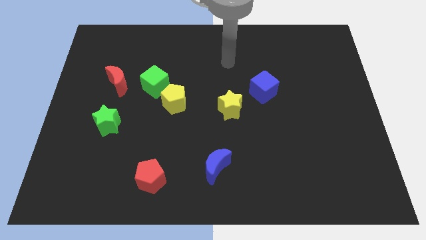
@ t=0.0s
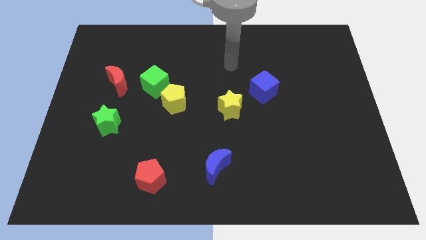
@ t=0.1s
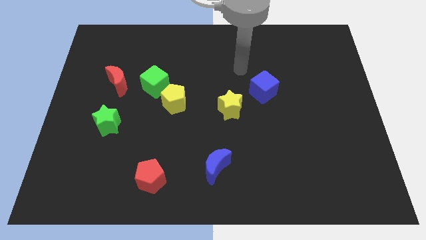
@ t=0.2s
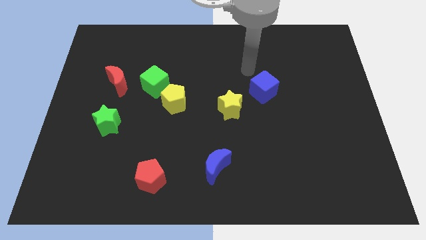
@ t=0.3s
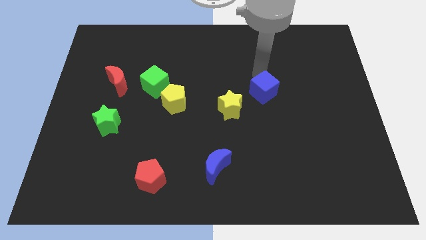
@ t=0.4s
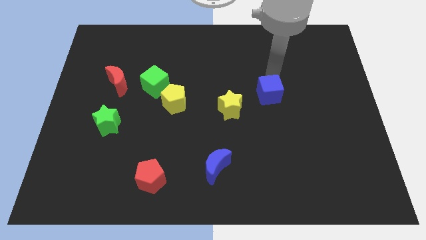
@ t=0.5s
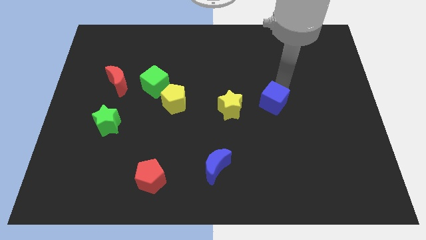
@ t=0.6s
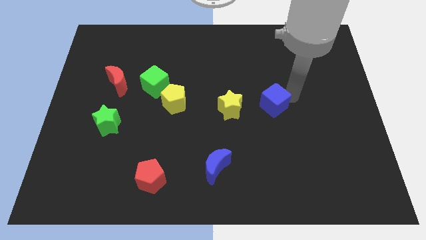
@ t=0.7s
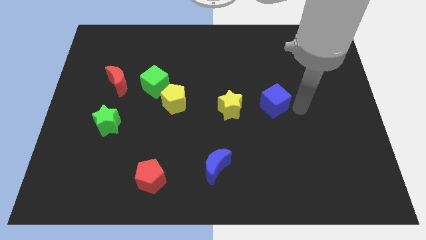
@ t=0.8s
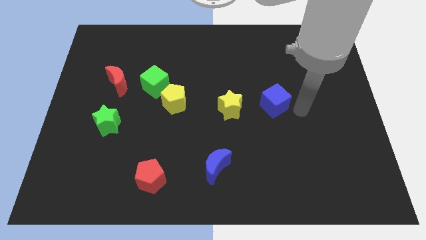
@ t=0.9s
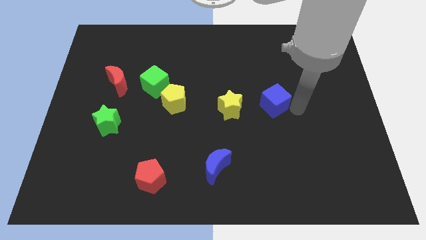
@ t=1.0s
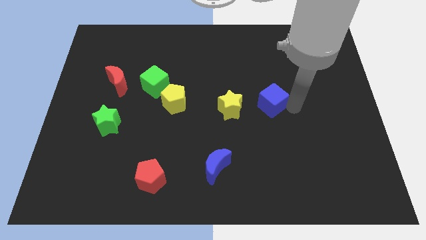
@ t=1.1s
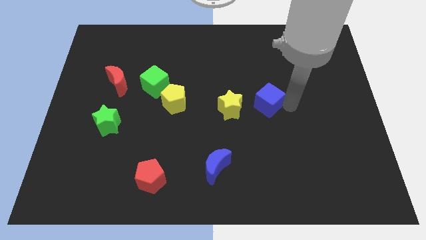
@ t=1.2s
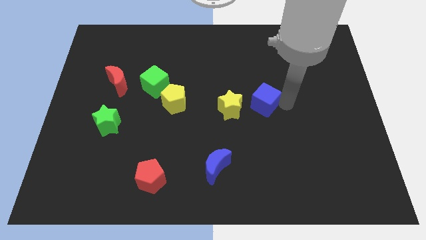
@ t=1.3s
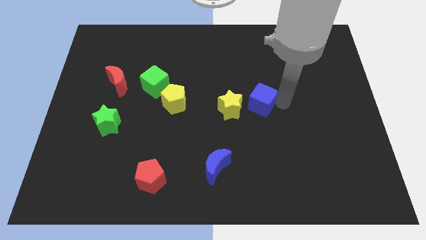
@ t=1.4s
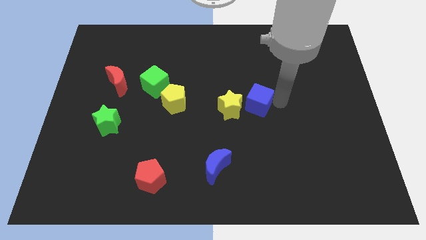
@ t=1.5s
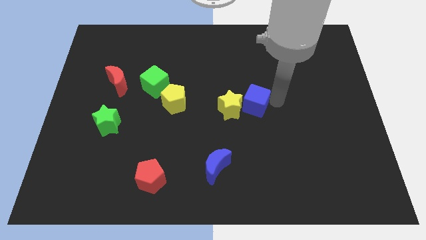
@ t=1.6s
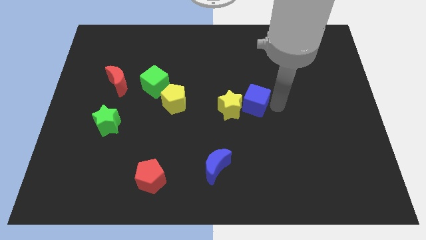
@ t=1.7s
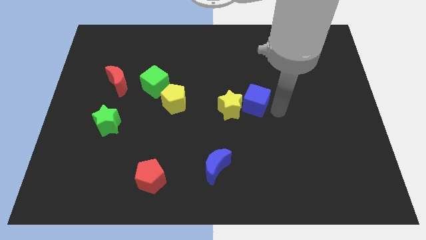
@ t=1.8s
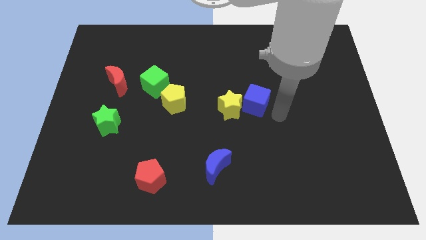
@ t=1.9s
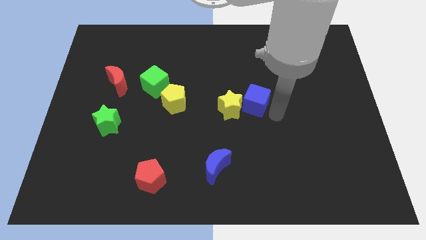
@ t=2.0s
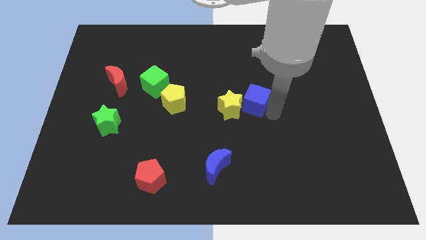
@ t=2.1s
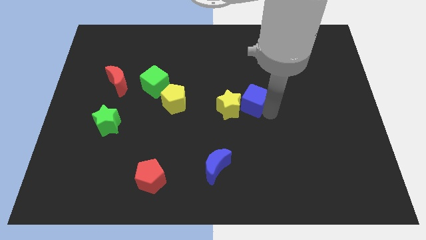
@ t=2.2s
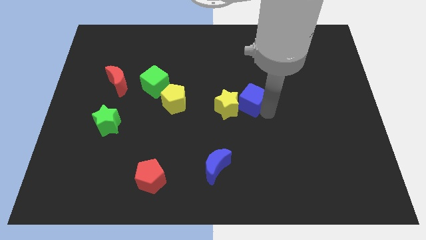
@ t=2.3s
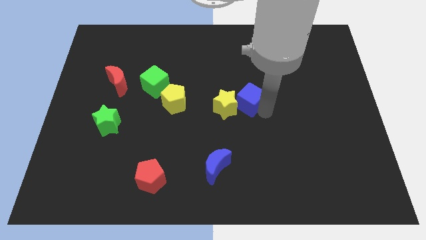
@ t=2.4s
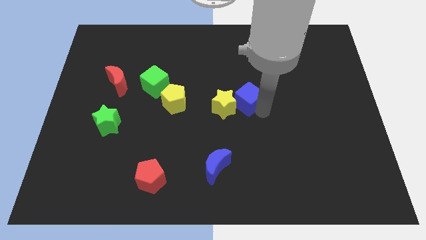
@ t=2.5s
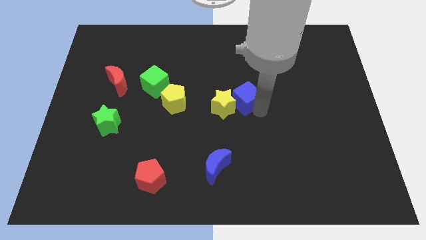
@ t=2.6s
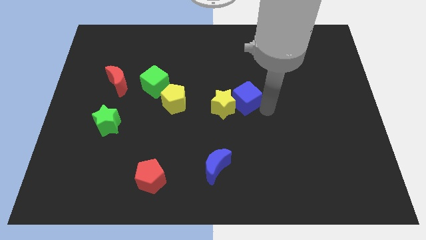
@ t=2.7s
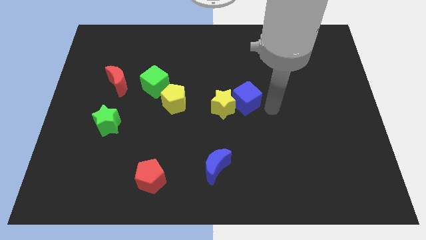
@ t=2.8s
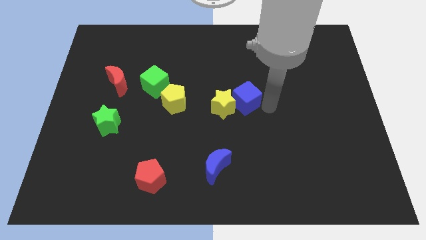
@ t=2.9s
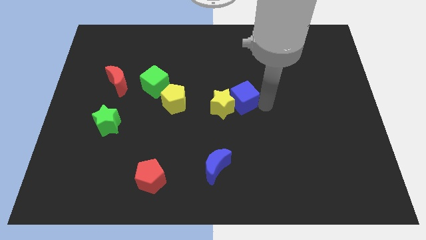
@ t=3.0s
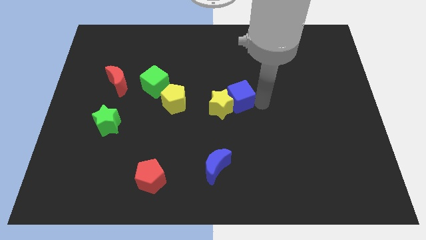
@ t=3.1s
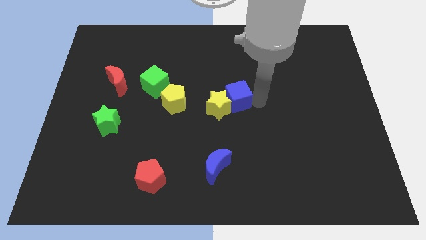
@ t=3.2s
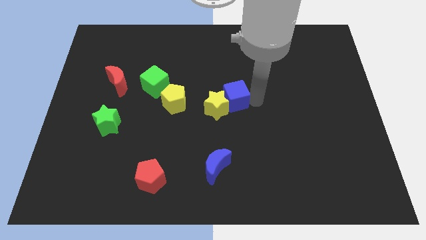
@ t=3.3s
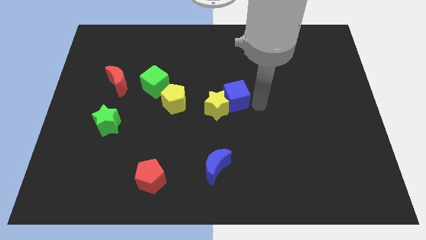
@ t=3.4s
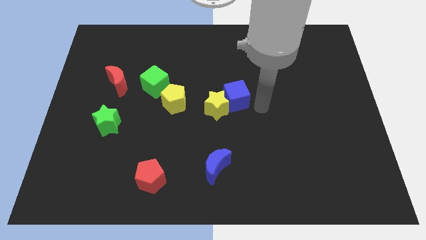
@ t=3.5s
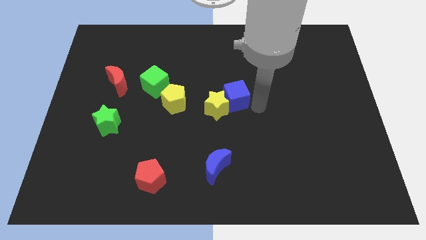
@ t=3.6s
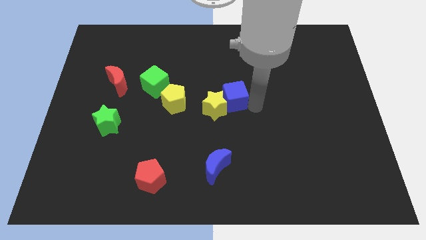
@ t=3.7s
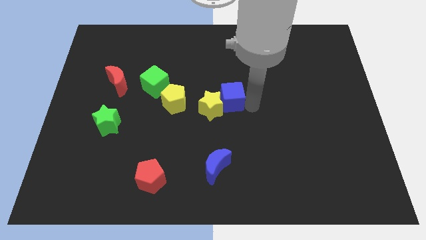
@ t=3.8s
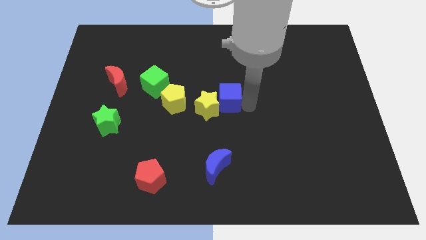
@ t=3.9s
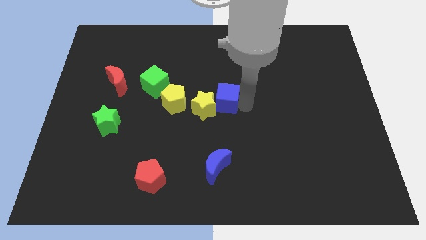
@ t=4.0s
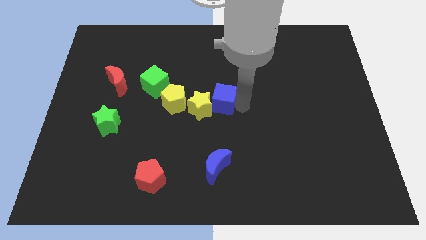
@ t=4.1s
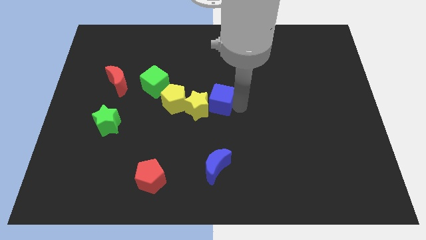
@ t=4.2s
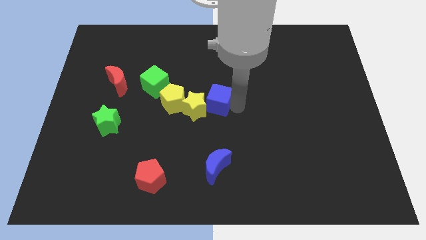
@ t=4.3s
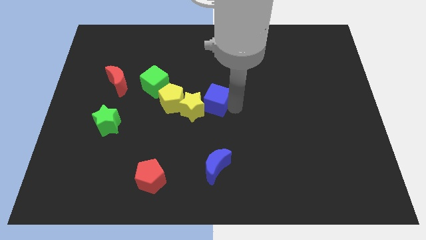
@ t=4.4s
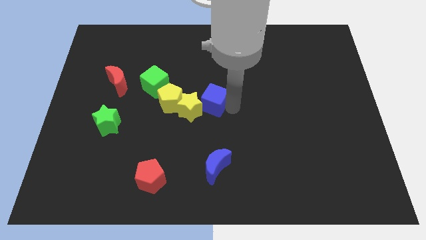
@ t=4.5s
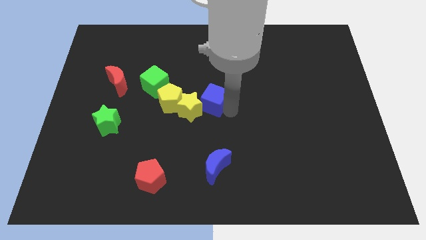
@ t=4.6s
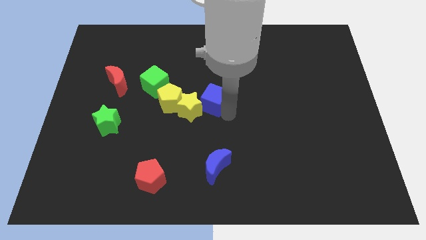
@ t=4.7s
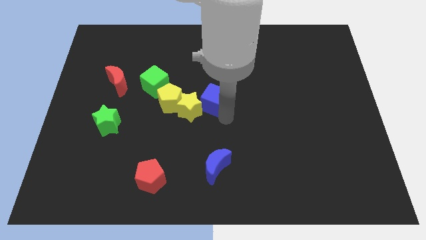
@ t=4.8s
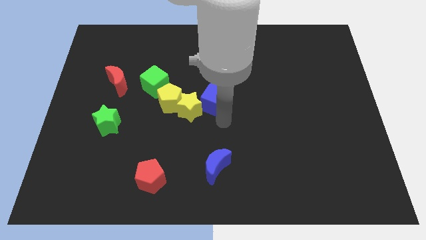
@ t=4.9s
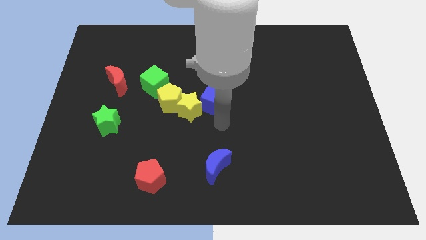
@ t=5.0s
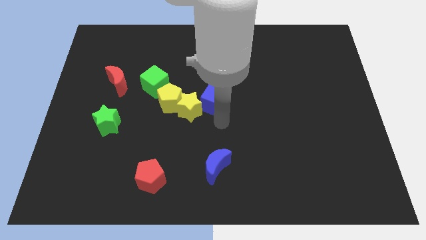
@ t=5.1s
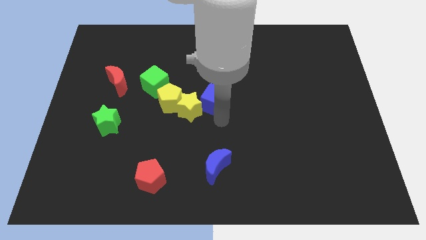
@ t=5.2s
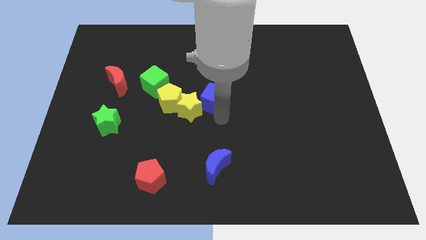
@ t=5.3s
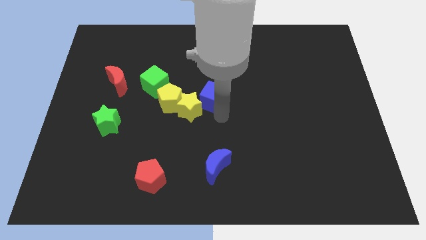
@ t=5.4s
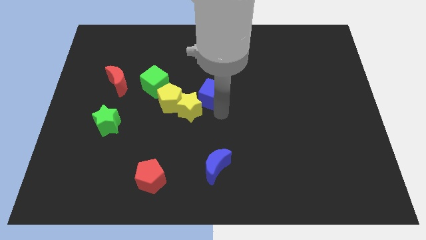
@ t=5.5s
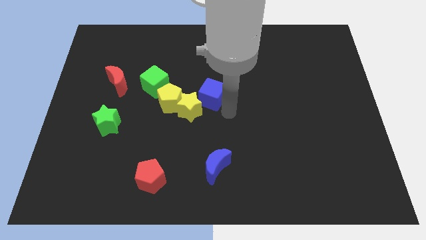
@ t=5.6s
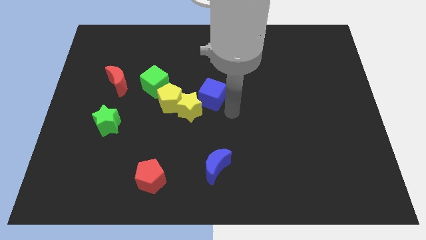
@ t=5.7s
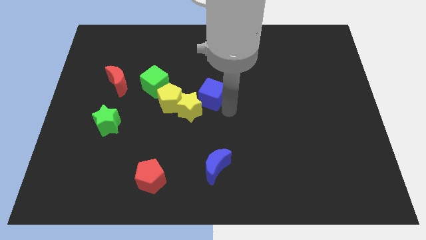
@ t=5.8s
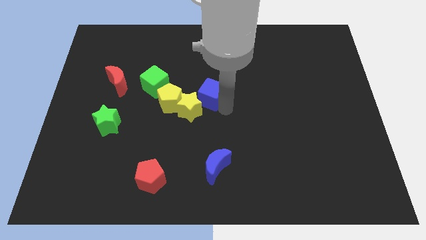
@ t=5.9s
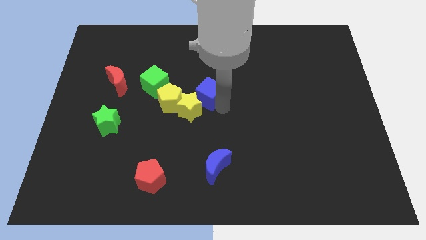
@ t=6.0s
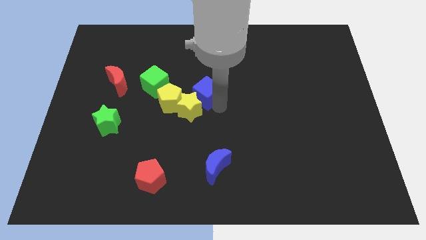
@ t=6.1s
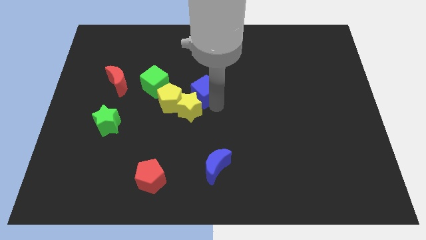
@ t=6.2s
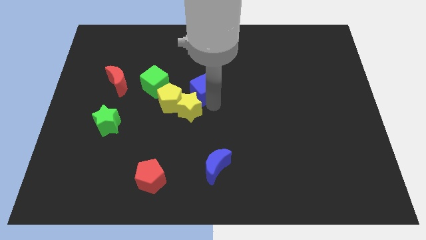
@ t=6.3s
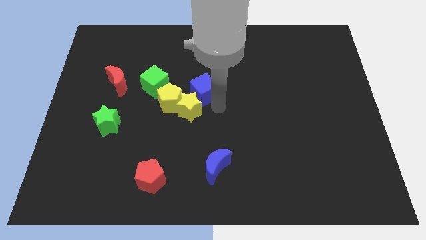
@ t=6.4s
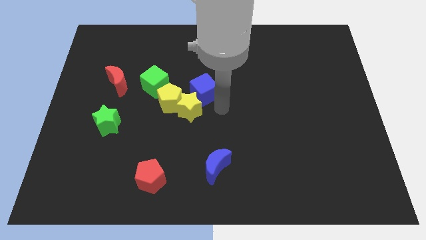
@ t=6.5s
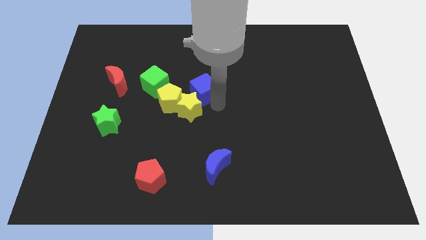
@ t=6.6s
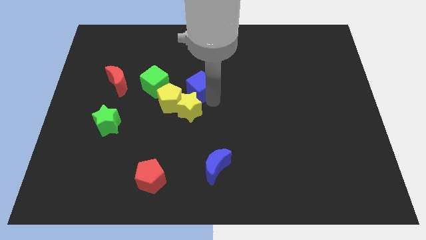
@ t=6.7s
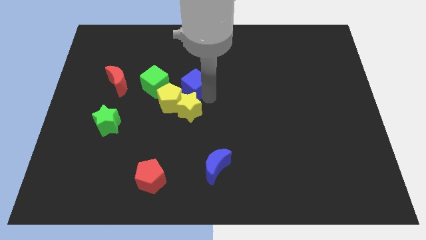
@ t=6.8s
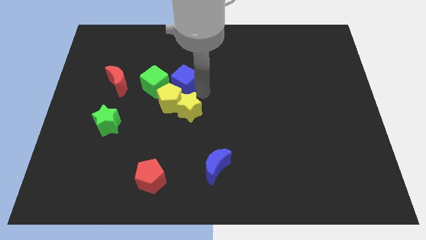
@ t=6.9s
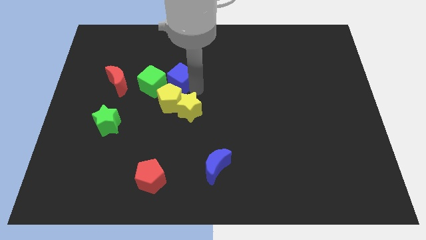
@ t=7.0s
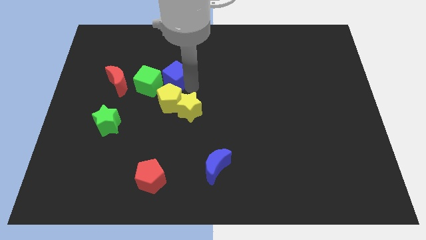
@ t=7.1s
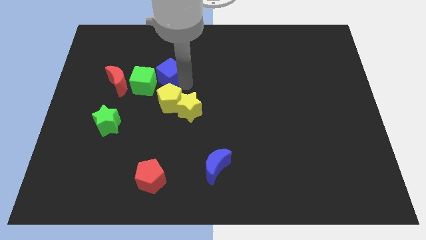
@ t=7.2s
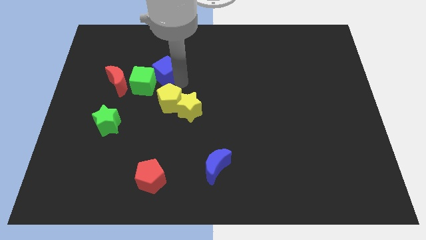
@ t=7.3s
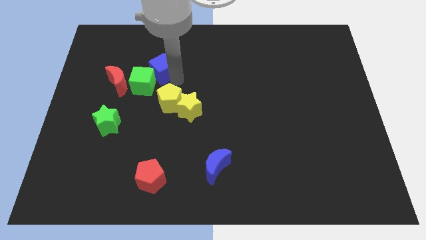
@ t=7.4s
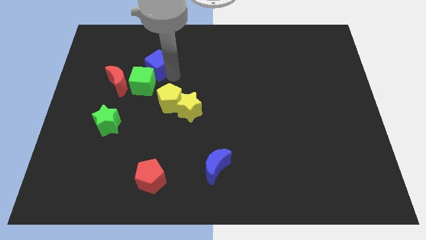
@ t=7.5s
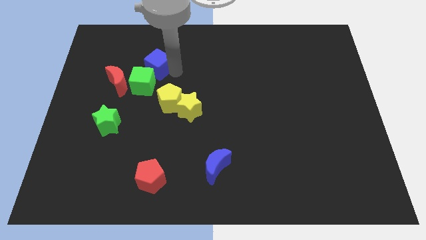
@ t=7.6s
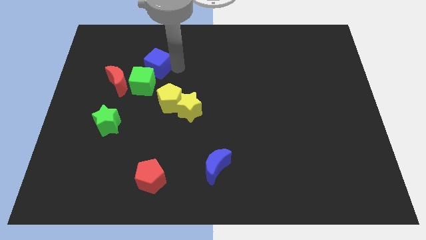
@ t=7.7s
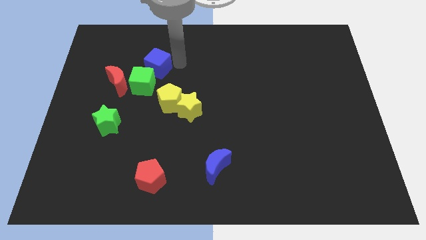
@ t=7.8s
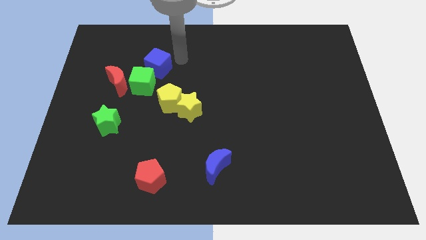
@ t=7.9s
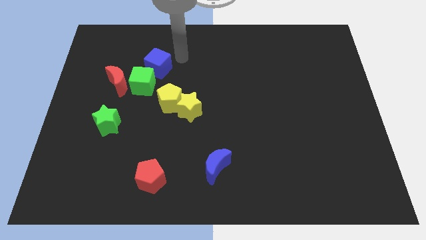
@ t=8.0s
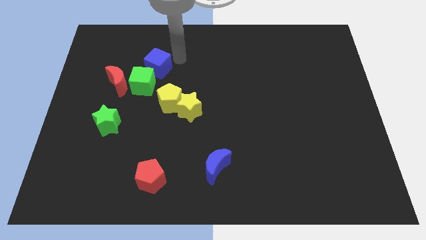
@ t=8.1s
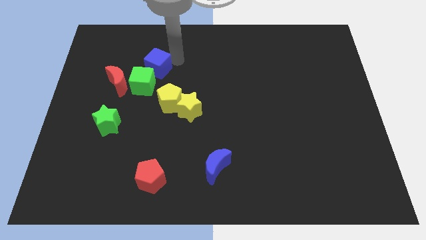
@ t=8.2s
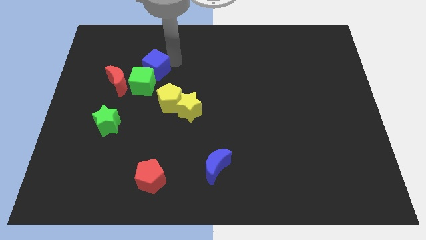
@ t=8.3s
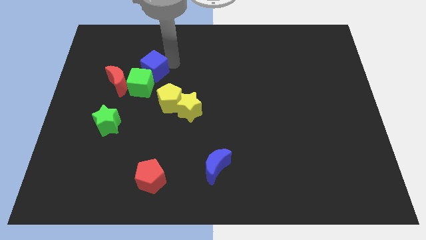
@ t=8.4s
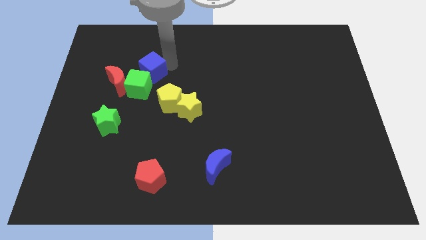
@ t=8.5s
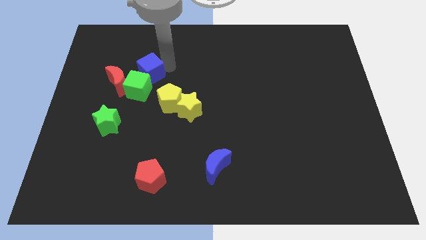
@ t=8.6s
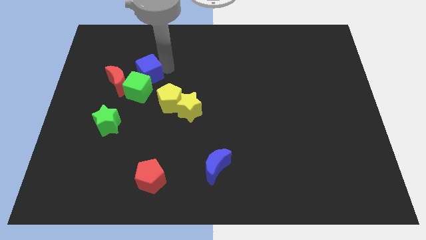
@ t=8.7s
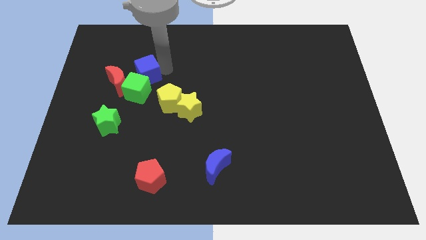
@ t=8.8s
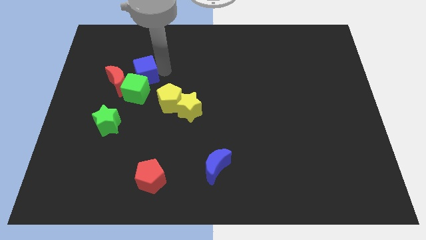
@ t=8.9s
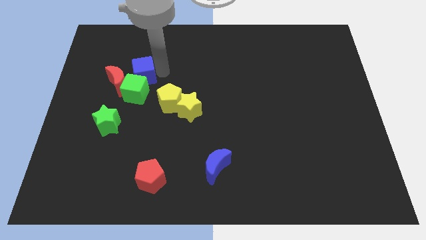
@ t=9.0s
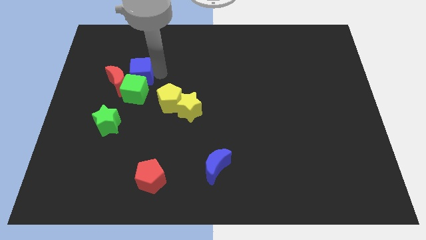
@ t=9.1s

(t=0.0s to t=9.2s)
push the blue cube next to the red moon
